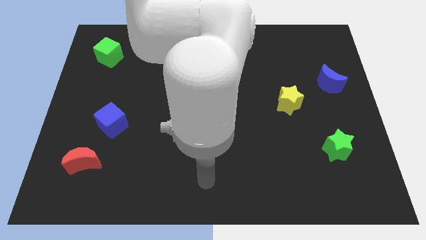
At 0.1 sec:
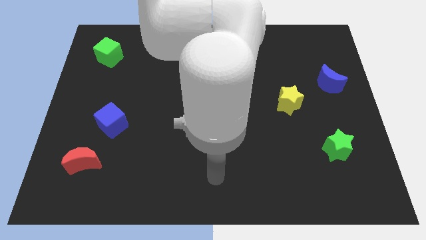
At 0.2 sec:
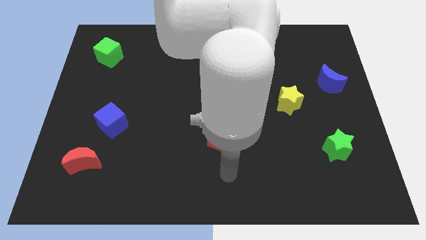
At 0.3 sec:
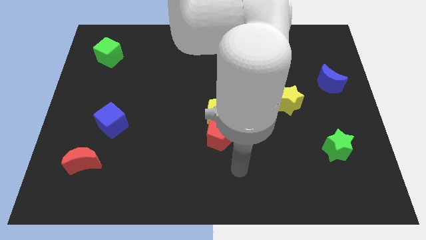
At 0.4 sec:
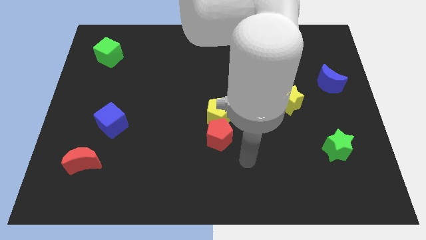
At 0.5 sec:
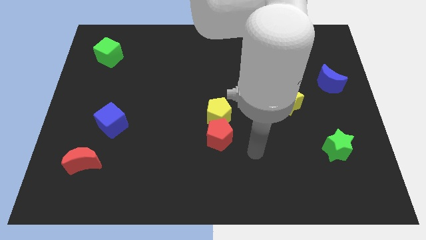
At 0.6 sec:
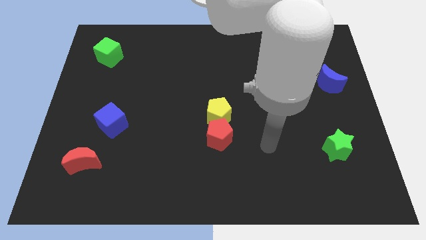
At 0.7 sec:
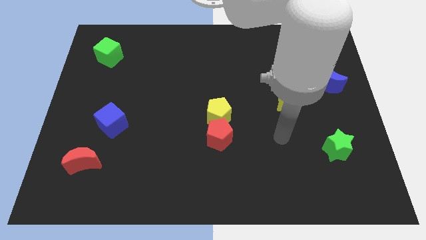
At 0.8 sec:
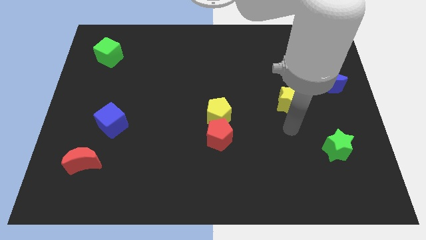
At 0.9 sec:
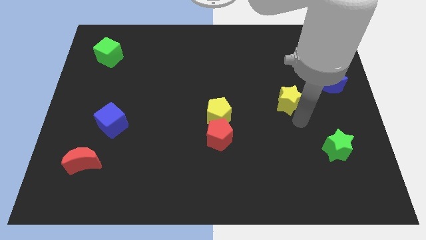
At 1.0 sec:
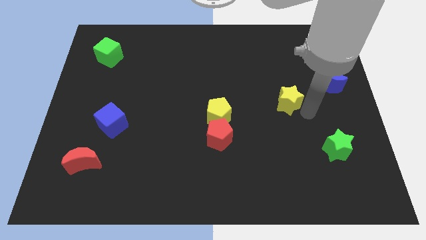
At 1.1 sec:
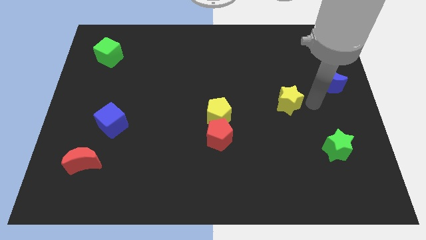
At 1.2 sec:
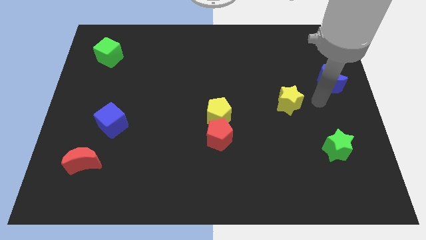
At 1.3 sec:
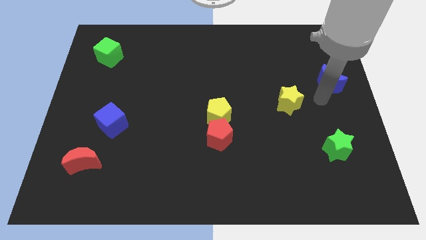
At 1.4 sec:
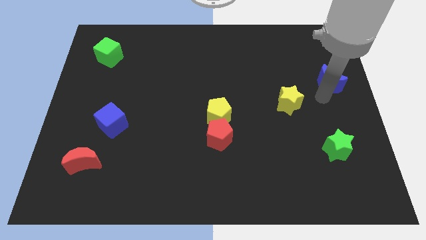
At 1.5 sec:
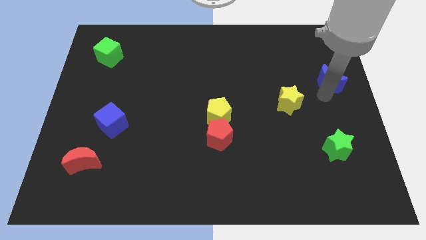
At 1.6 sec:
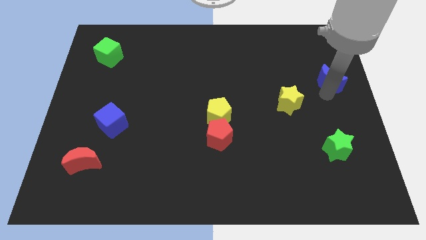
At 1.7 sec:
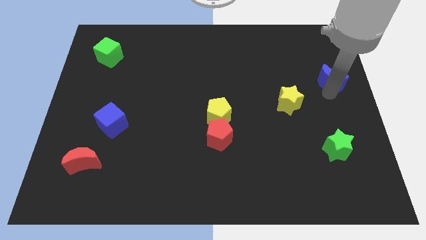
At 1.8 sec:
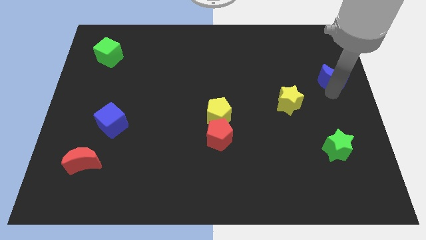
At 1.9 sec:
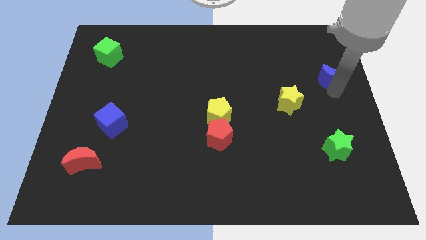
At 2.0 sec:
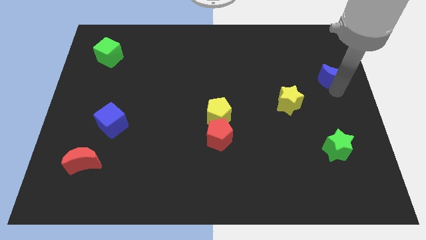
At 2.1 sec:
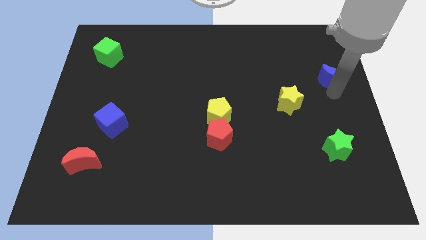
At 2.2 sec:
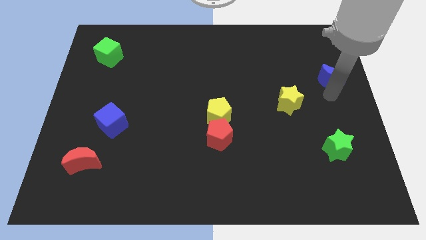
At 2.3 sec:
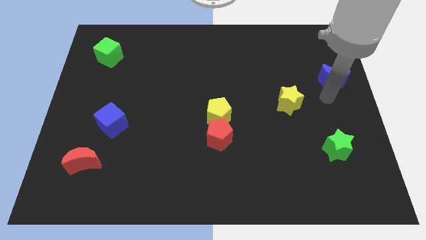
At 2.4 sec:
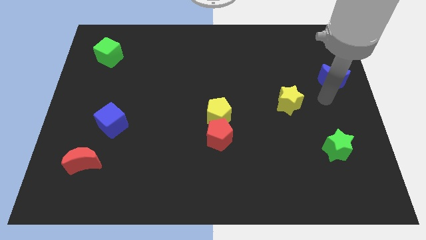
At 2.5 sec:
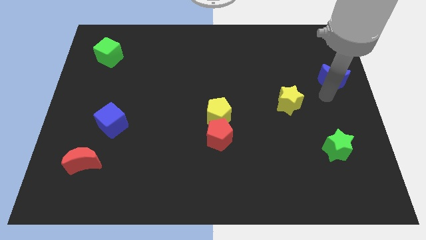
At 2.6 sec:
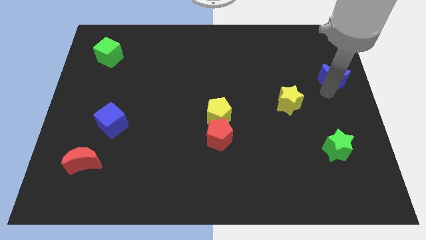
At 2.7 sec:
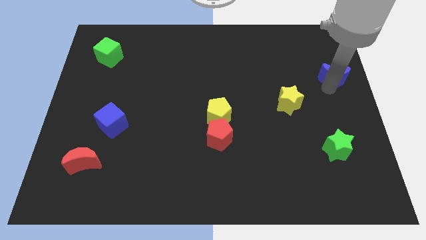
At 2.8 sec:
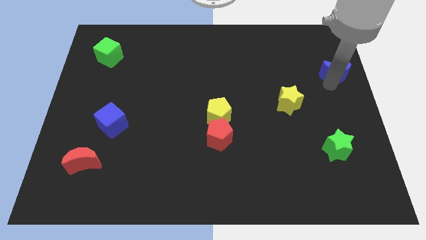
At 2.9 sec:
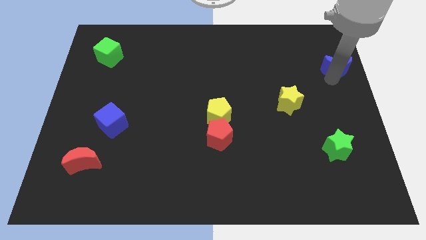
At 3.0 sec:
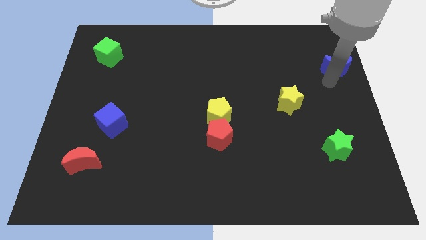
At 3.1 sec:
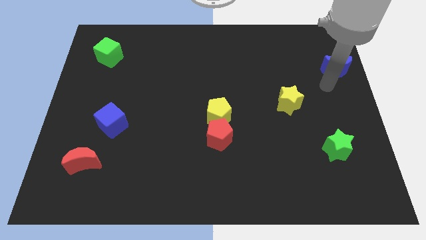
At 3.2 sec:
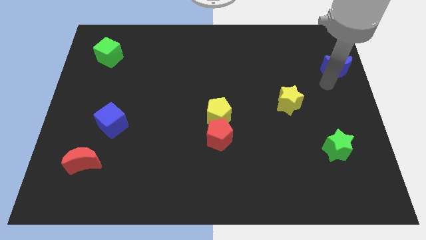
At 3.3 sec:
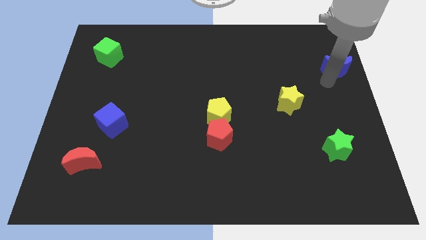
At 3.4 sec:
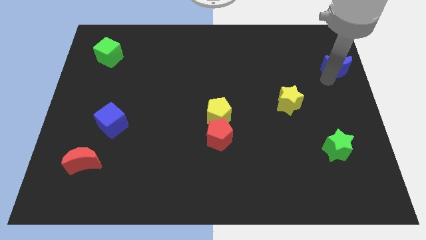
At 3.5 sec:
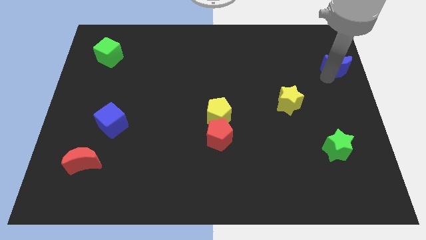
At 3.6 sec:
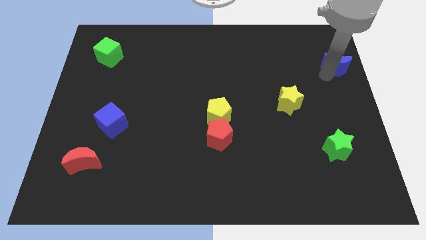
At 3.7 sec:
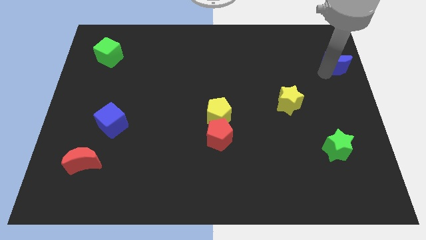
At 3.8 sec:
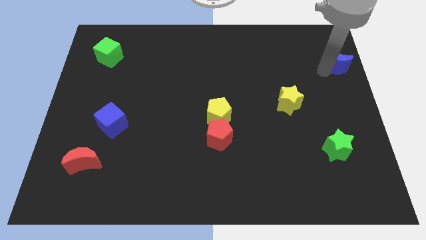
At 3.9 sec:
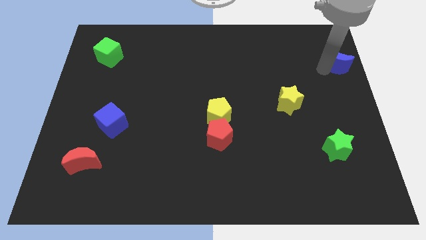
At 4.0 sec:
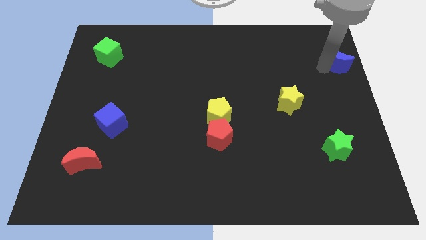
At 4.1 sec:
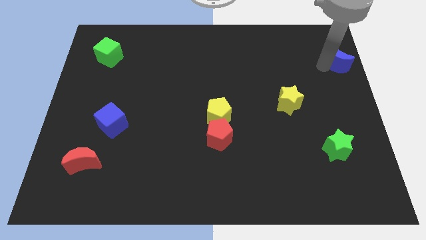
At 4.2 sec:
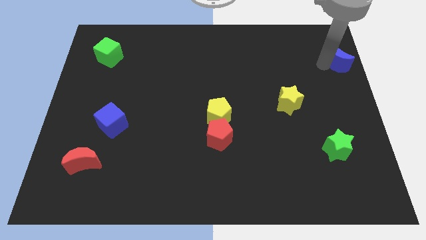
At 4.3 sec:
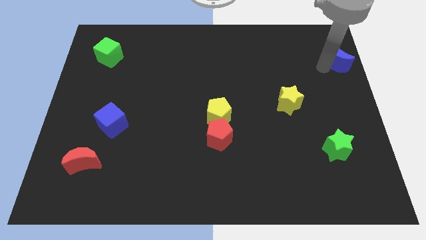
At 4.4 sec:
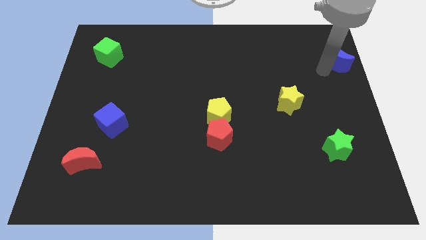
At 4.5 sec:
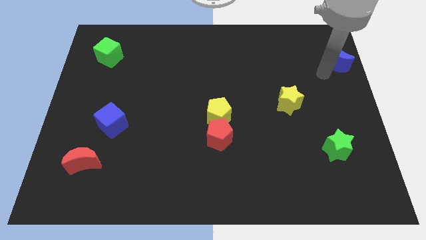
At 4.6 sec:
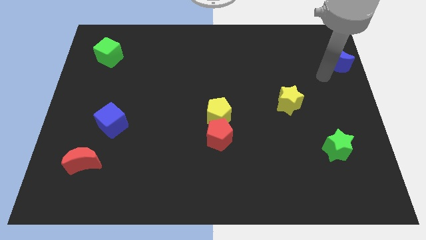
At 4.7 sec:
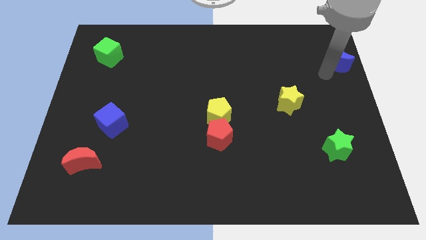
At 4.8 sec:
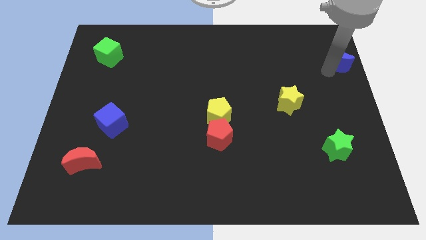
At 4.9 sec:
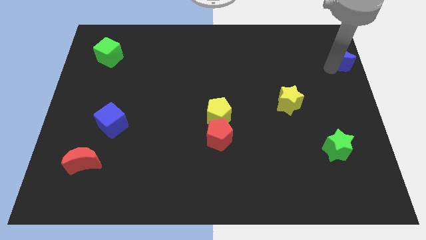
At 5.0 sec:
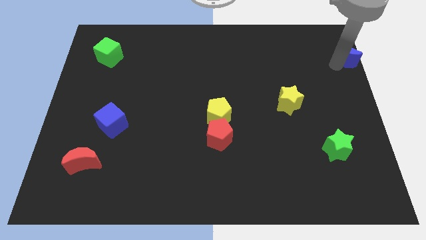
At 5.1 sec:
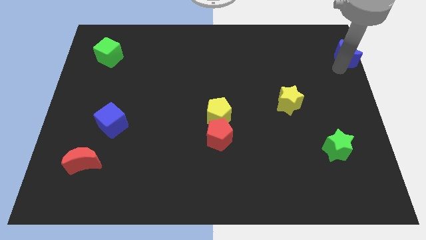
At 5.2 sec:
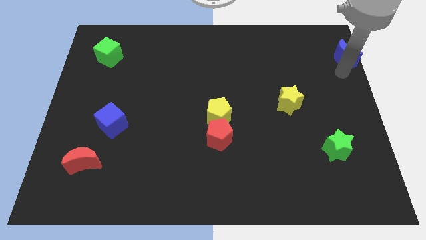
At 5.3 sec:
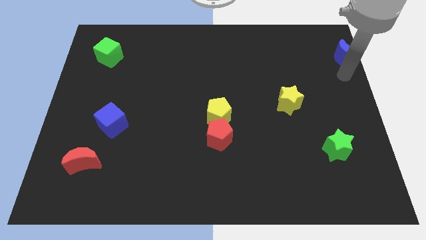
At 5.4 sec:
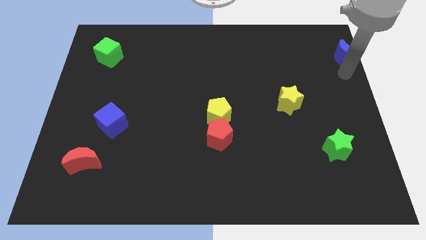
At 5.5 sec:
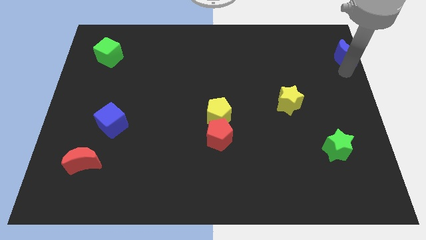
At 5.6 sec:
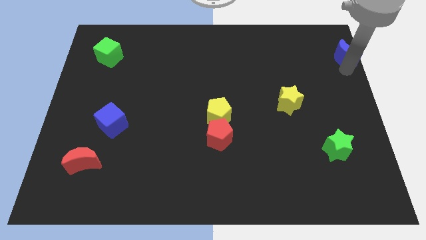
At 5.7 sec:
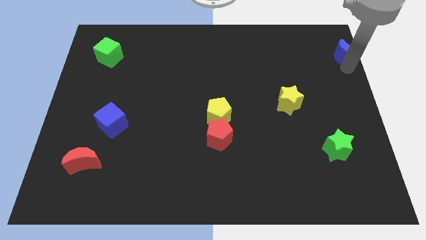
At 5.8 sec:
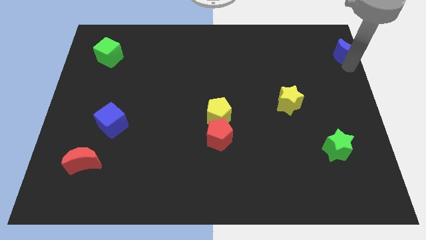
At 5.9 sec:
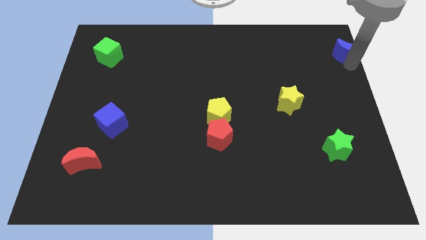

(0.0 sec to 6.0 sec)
move the blue moon to the top right of the board
